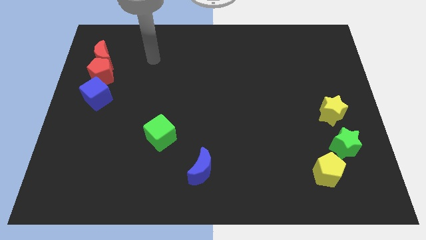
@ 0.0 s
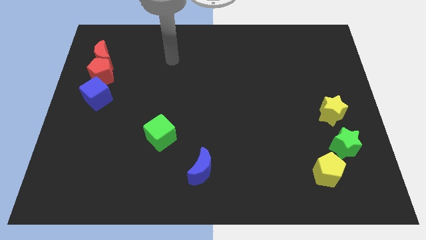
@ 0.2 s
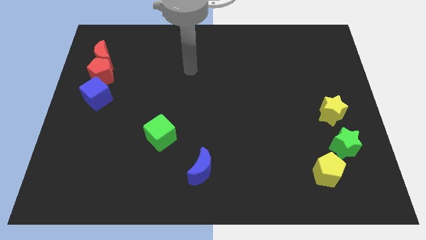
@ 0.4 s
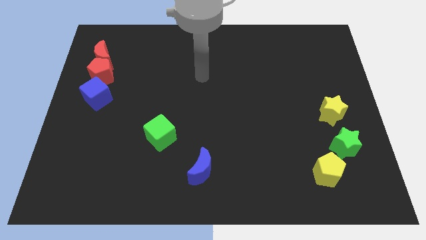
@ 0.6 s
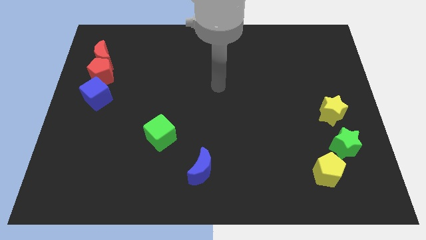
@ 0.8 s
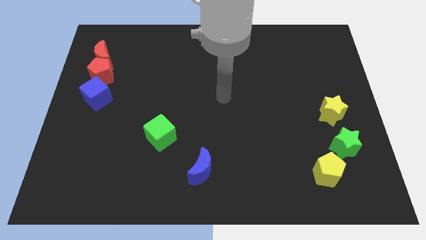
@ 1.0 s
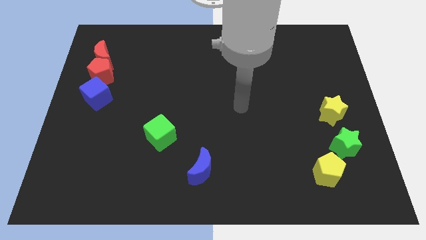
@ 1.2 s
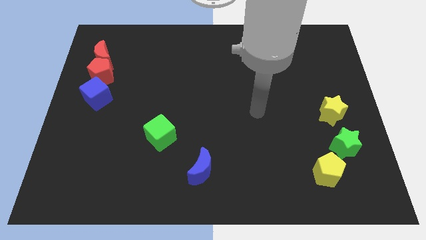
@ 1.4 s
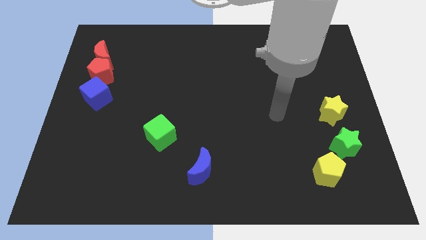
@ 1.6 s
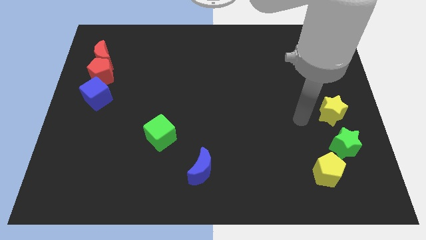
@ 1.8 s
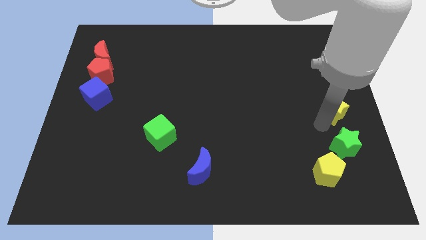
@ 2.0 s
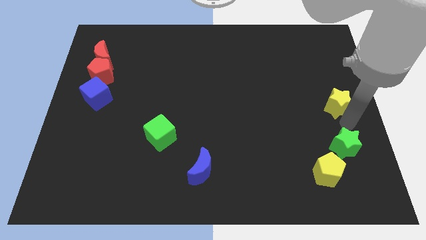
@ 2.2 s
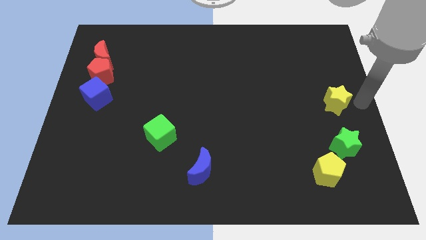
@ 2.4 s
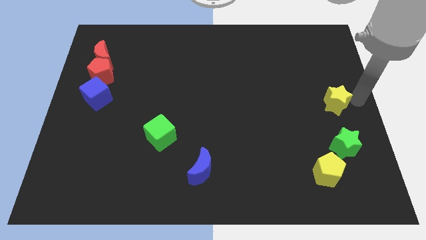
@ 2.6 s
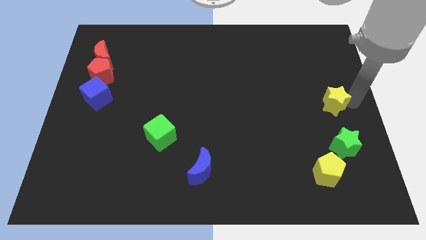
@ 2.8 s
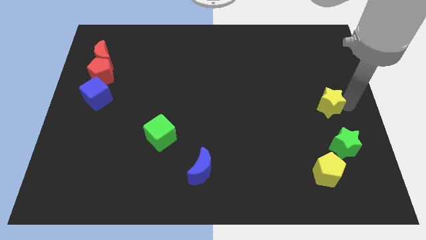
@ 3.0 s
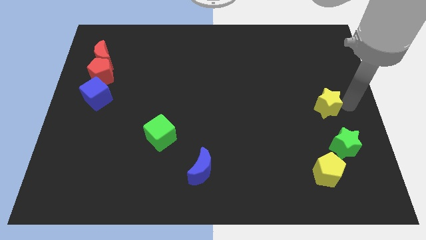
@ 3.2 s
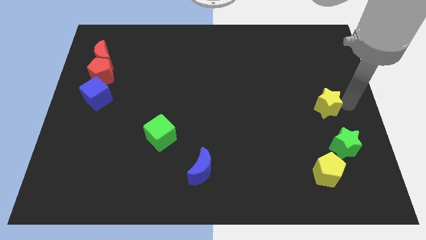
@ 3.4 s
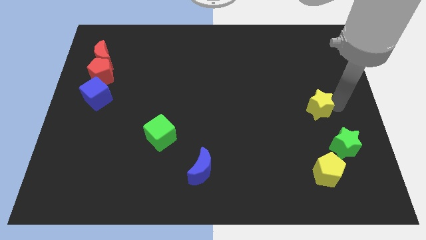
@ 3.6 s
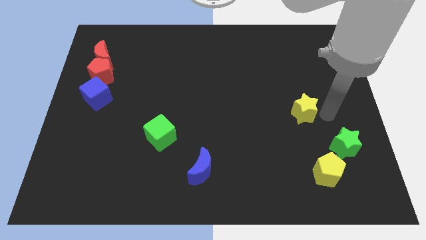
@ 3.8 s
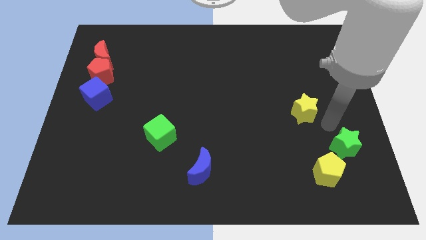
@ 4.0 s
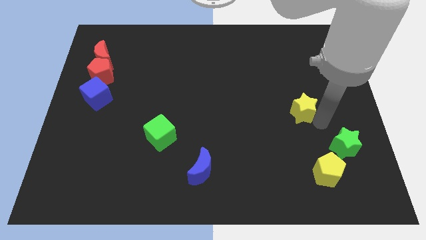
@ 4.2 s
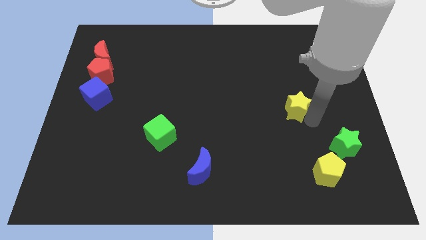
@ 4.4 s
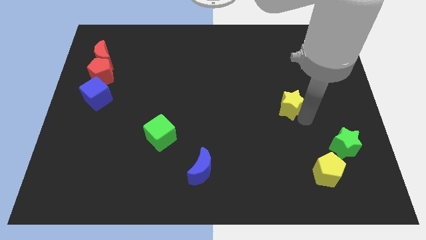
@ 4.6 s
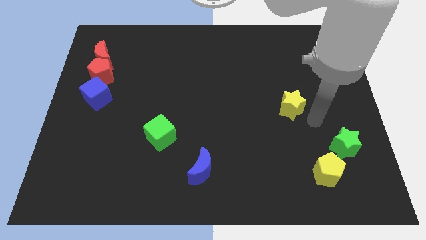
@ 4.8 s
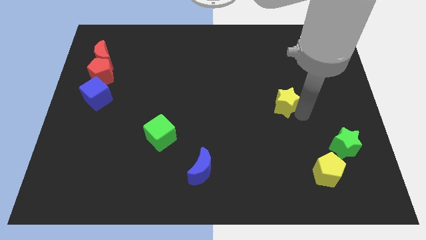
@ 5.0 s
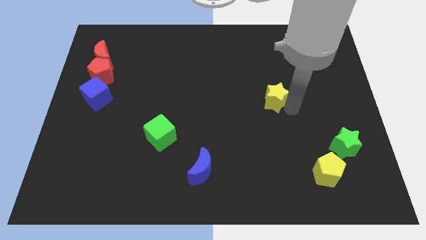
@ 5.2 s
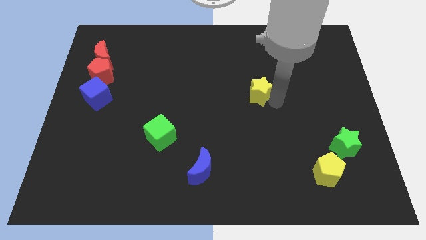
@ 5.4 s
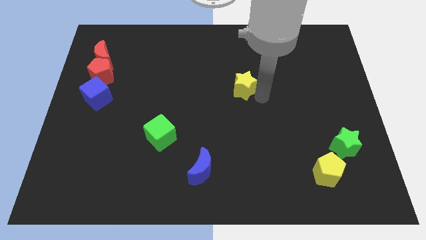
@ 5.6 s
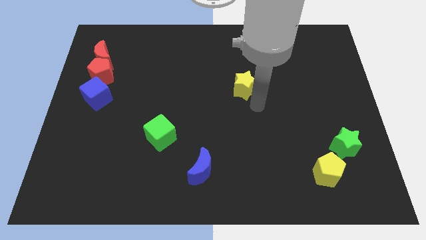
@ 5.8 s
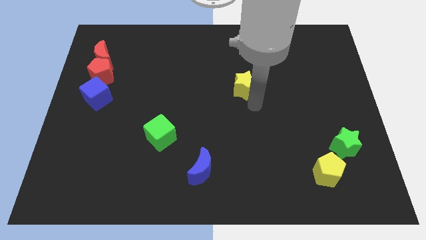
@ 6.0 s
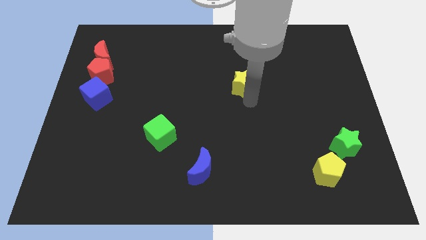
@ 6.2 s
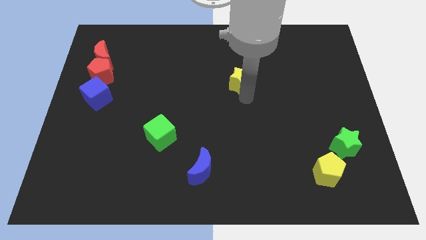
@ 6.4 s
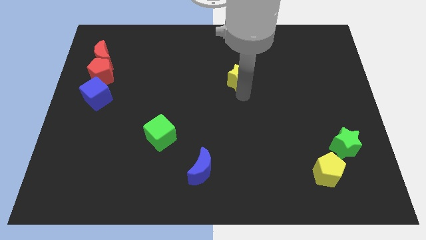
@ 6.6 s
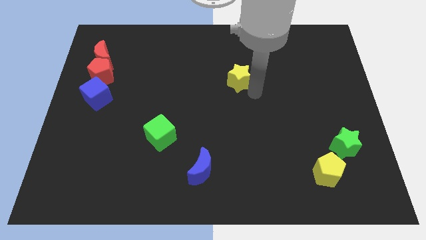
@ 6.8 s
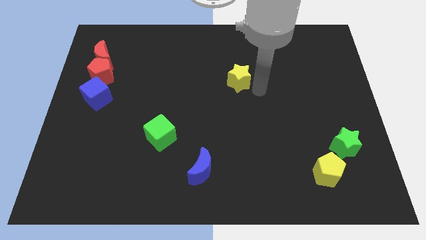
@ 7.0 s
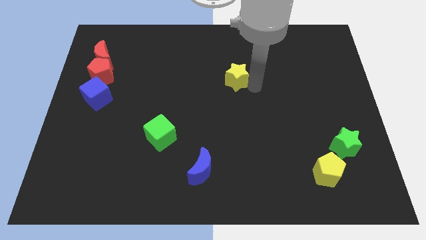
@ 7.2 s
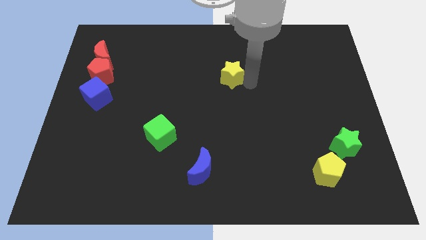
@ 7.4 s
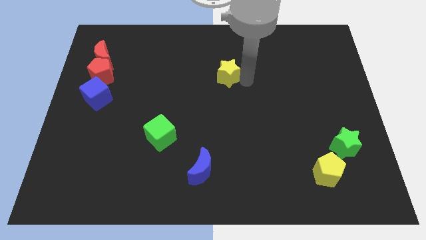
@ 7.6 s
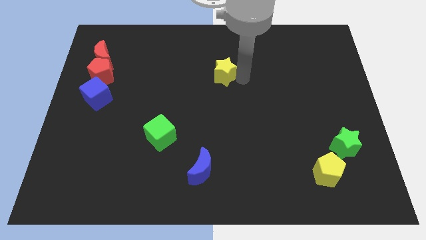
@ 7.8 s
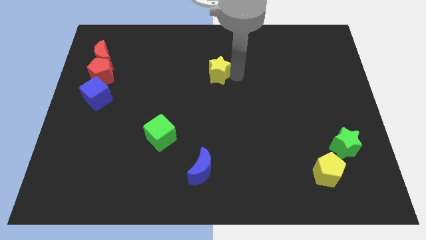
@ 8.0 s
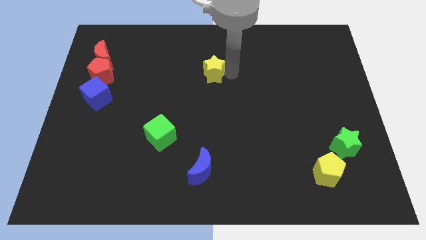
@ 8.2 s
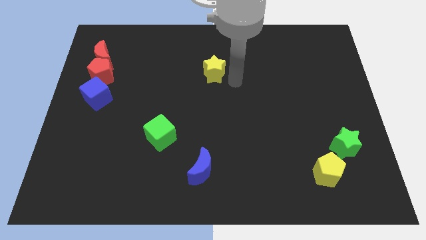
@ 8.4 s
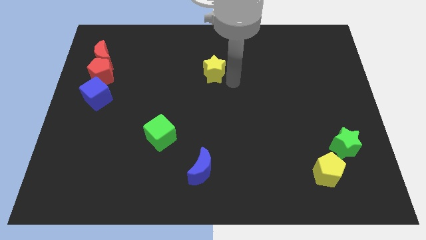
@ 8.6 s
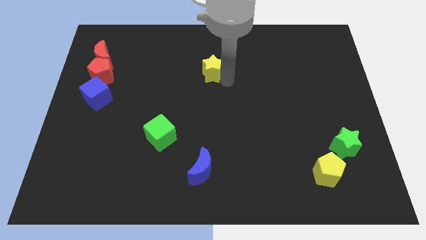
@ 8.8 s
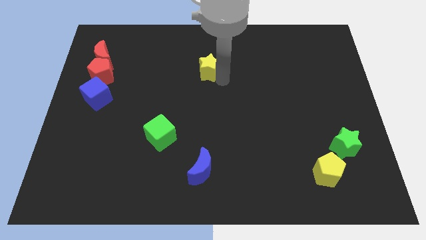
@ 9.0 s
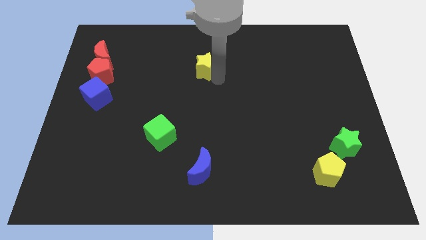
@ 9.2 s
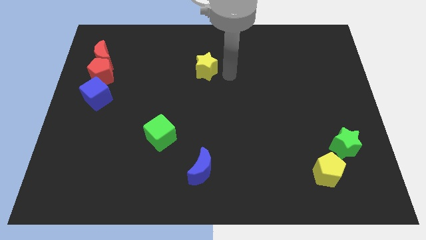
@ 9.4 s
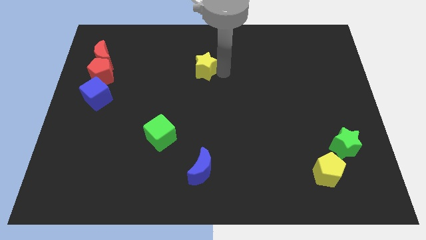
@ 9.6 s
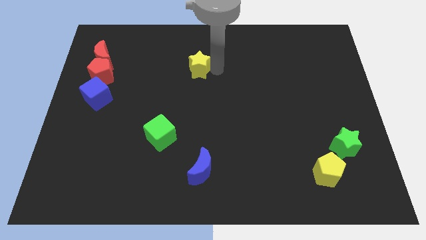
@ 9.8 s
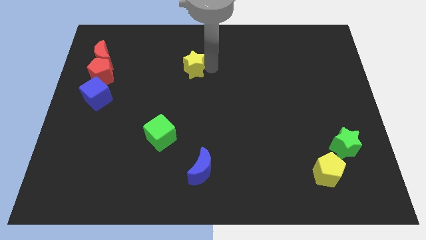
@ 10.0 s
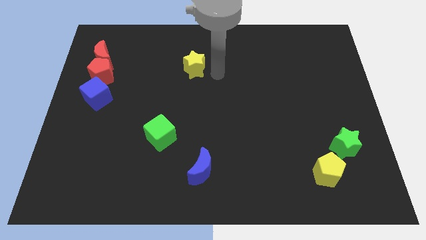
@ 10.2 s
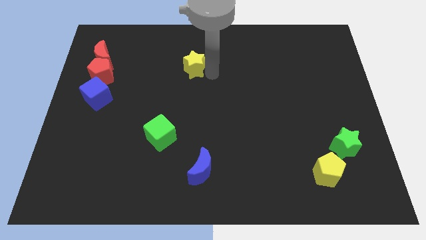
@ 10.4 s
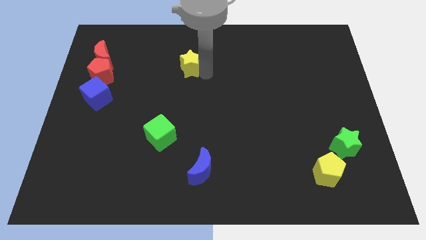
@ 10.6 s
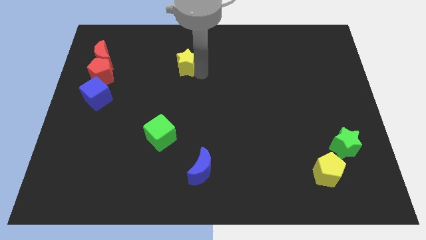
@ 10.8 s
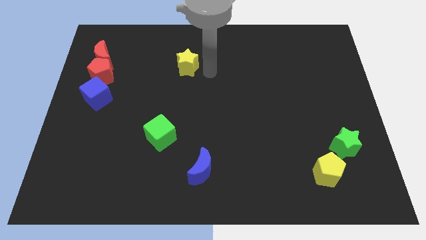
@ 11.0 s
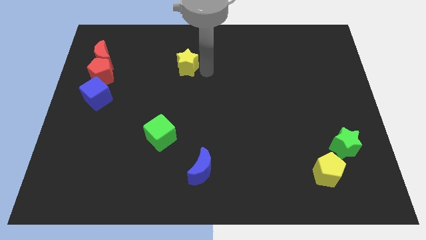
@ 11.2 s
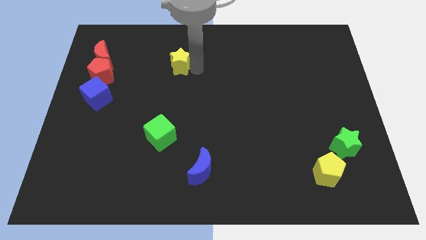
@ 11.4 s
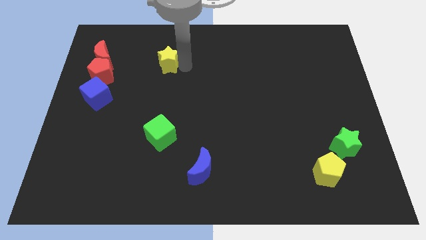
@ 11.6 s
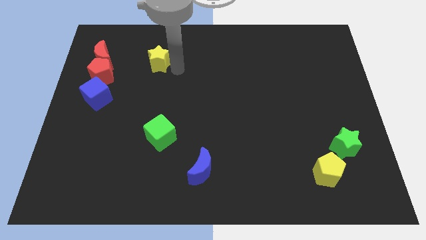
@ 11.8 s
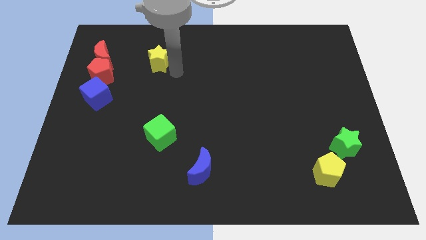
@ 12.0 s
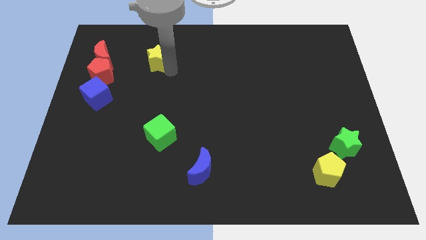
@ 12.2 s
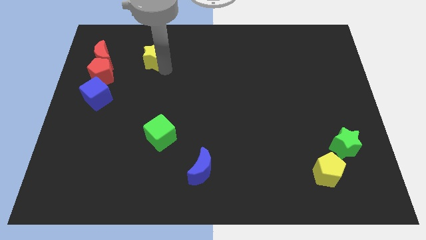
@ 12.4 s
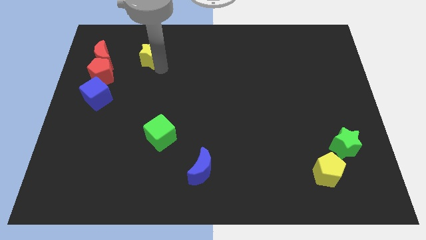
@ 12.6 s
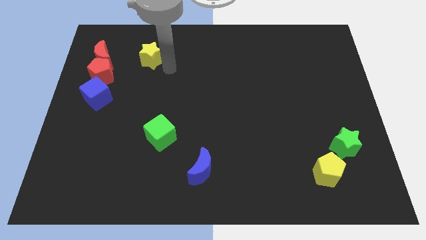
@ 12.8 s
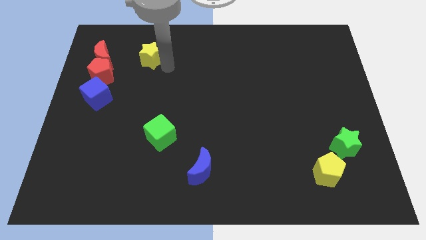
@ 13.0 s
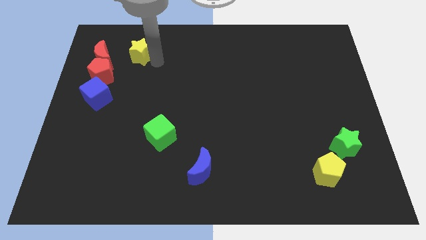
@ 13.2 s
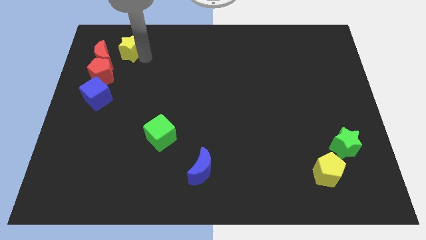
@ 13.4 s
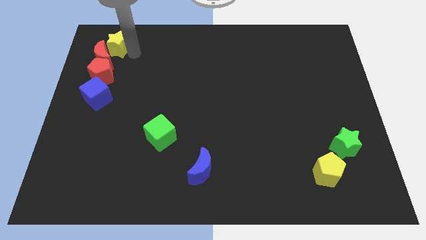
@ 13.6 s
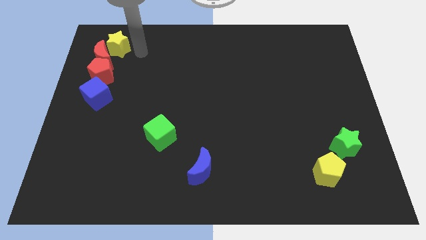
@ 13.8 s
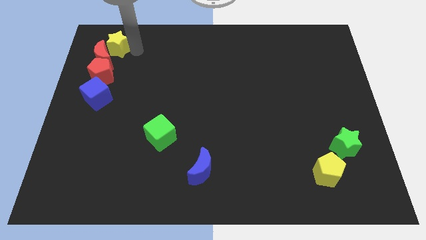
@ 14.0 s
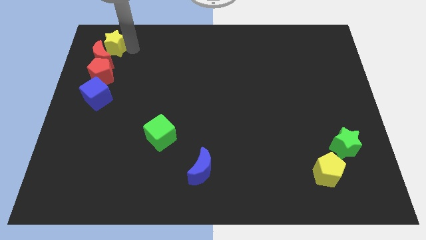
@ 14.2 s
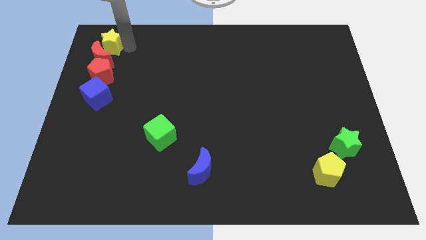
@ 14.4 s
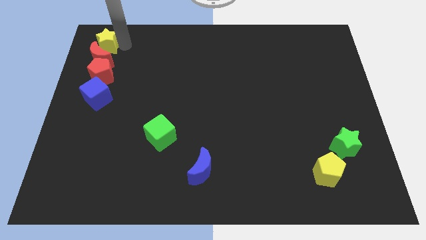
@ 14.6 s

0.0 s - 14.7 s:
move the yellow star to the top left corner
